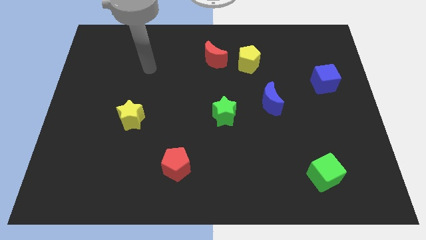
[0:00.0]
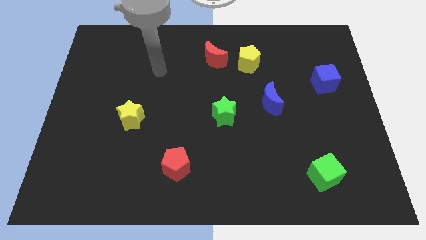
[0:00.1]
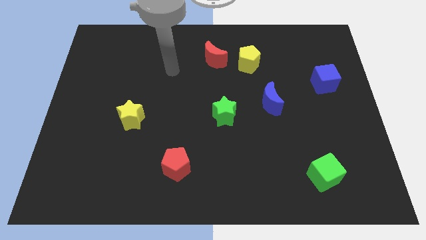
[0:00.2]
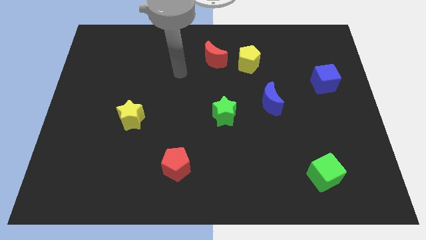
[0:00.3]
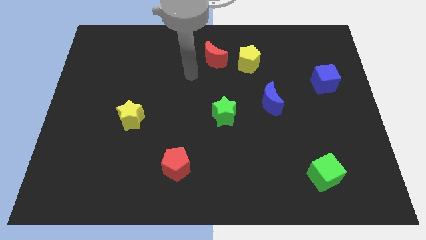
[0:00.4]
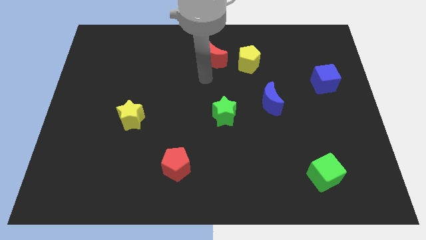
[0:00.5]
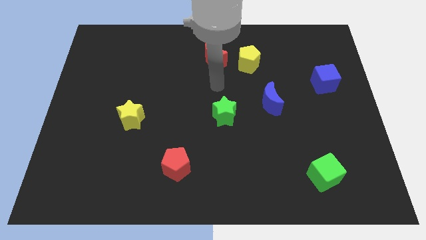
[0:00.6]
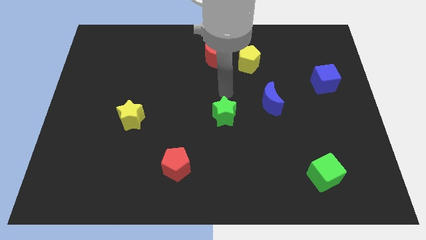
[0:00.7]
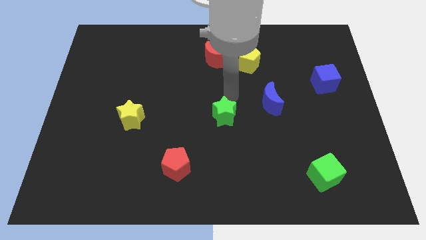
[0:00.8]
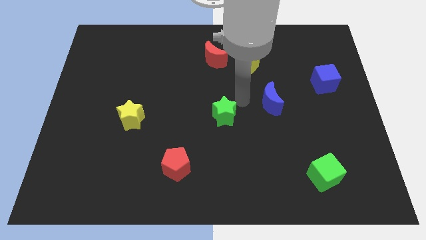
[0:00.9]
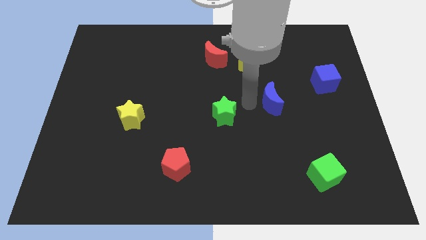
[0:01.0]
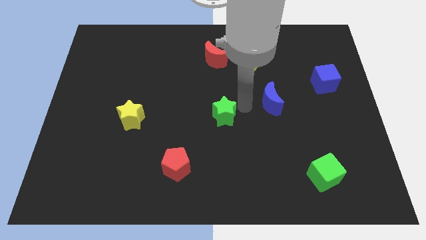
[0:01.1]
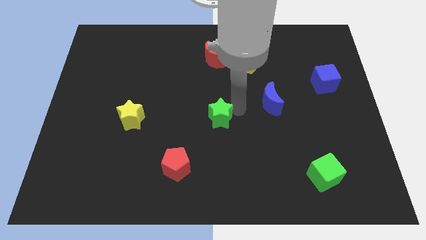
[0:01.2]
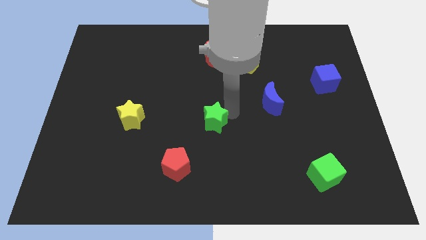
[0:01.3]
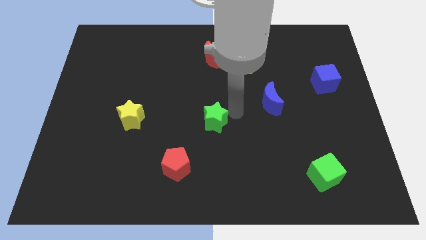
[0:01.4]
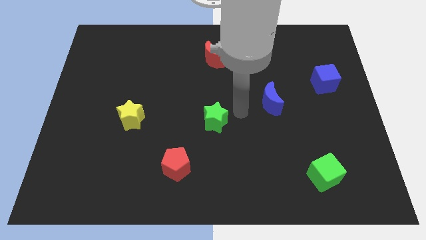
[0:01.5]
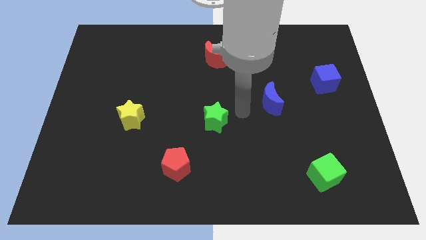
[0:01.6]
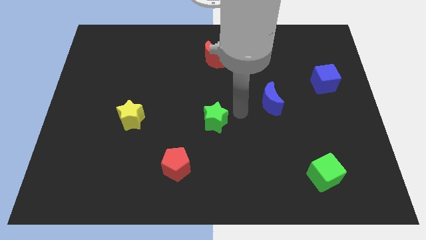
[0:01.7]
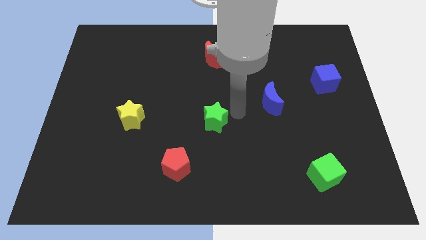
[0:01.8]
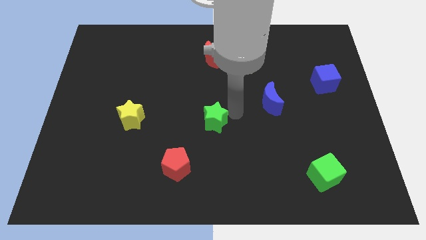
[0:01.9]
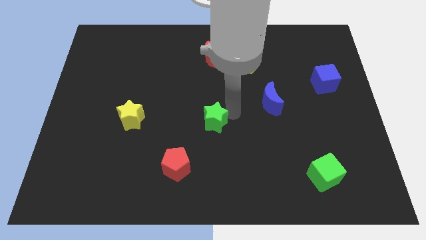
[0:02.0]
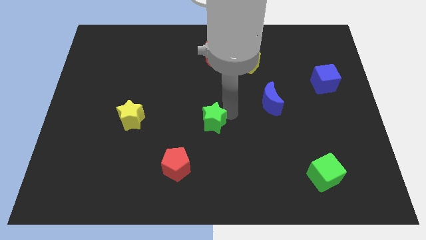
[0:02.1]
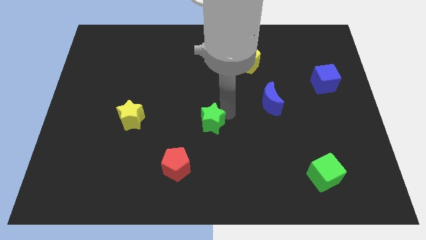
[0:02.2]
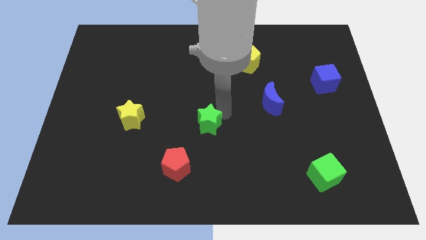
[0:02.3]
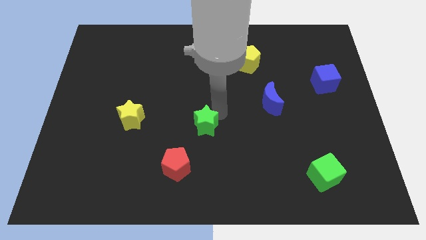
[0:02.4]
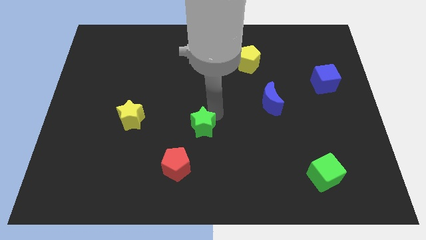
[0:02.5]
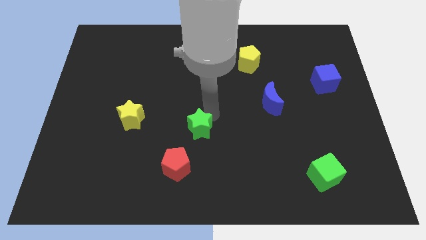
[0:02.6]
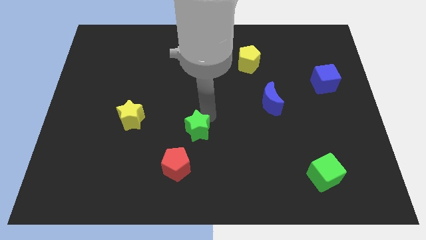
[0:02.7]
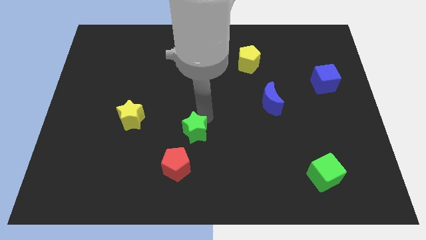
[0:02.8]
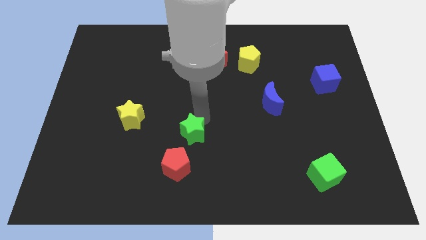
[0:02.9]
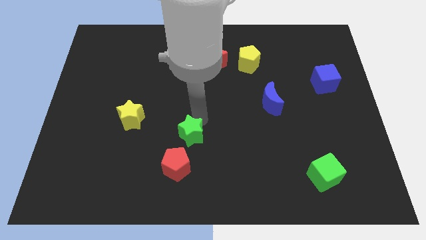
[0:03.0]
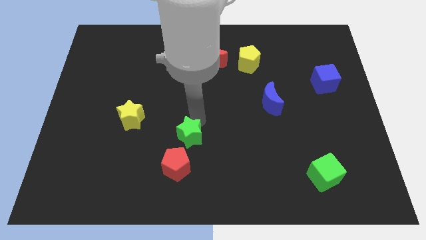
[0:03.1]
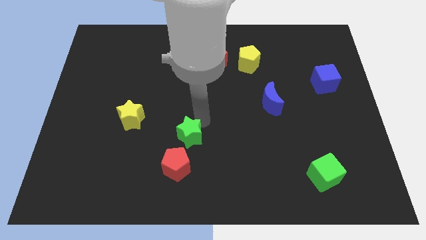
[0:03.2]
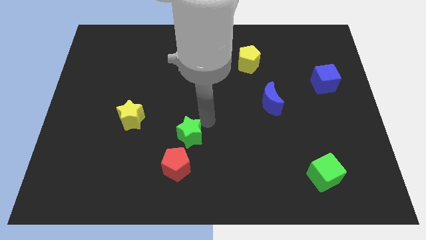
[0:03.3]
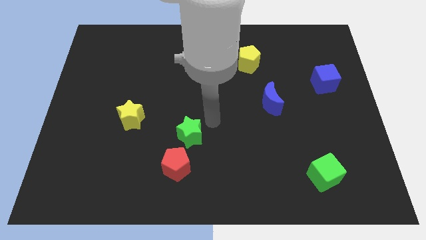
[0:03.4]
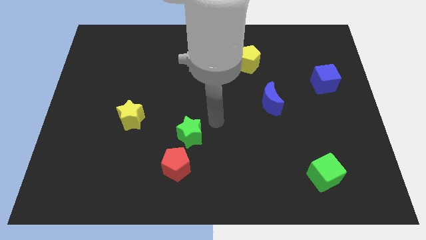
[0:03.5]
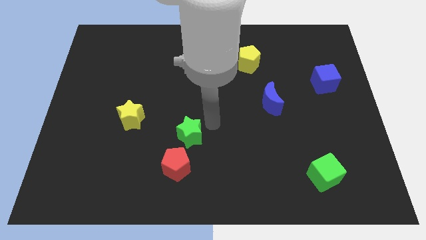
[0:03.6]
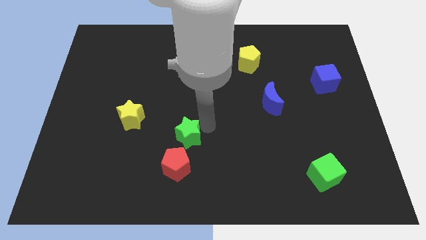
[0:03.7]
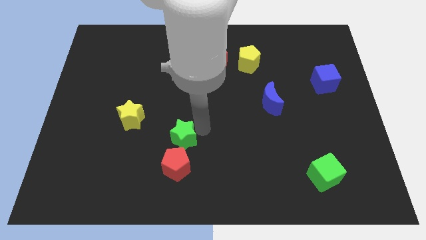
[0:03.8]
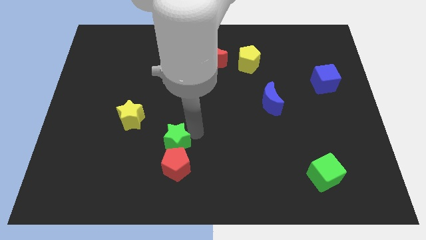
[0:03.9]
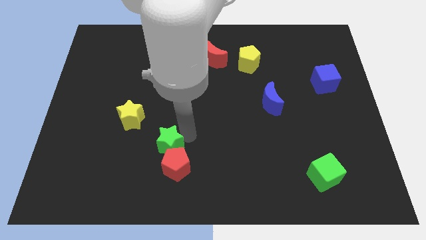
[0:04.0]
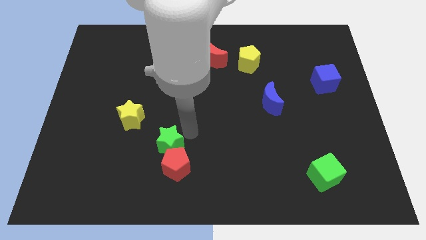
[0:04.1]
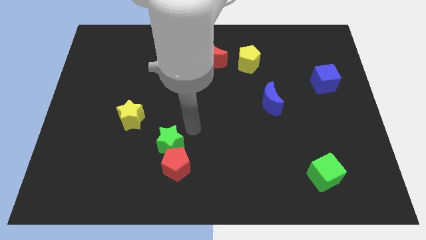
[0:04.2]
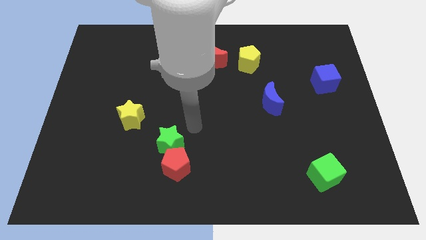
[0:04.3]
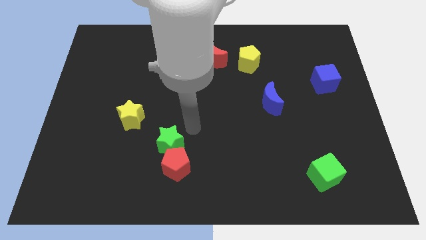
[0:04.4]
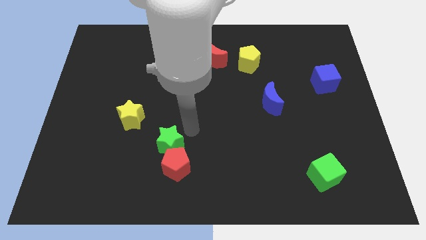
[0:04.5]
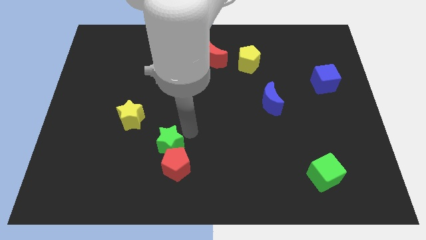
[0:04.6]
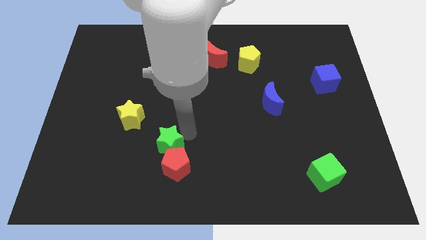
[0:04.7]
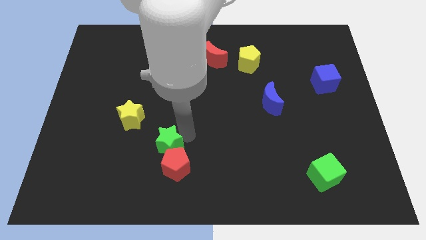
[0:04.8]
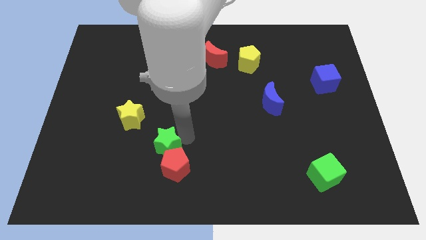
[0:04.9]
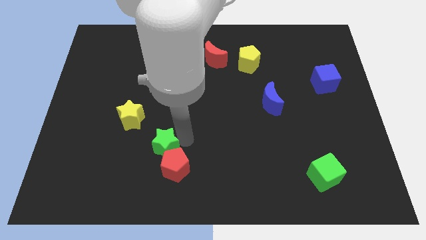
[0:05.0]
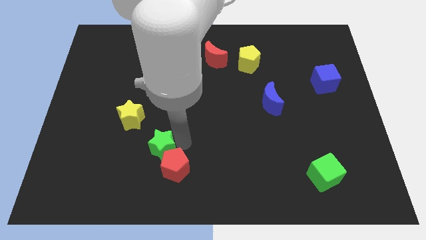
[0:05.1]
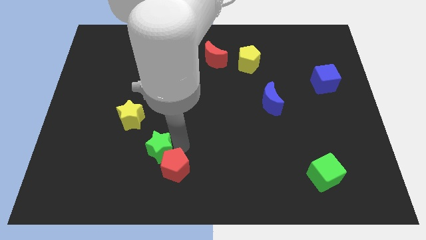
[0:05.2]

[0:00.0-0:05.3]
push the green star to the left side of the red pentagon

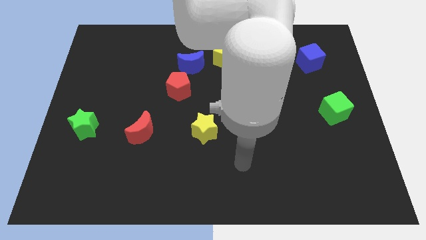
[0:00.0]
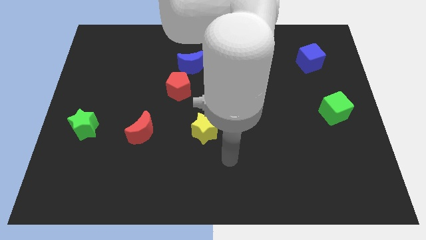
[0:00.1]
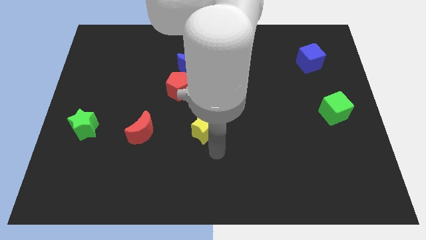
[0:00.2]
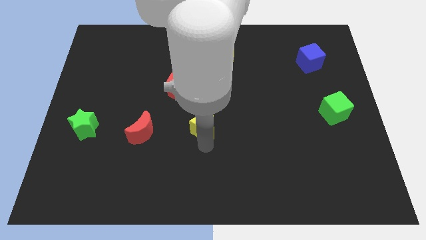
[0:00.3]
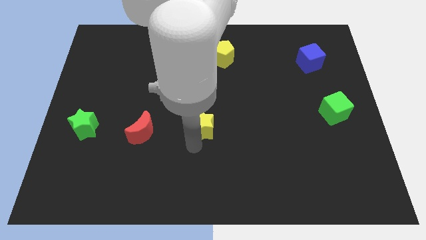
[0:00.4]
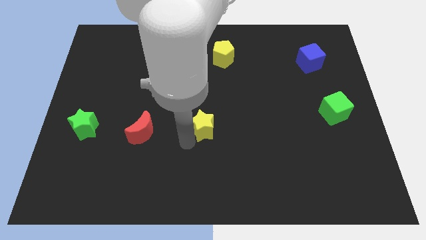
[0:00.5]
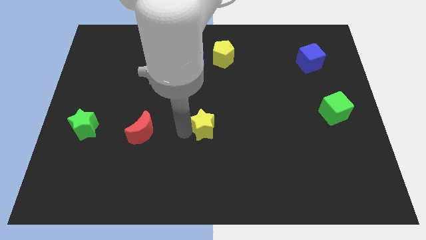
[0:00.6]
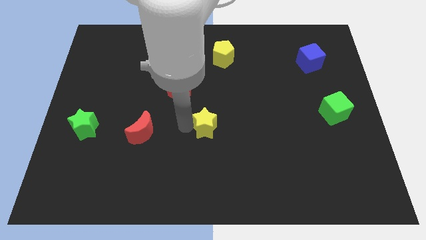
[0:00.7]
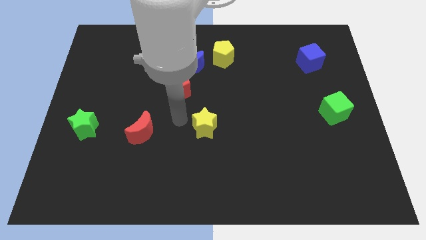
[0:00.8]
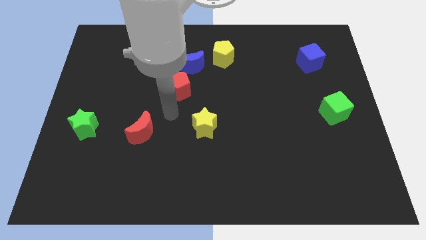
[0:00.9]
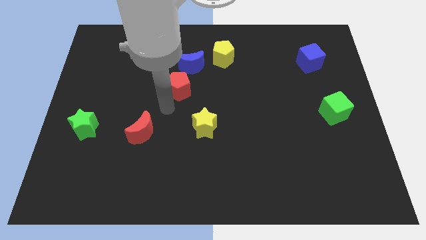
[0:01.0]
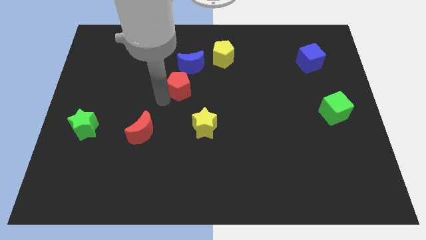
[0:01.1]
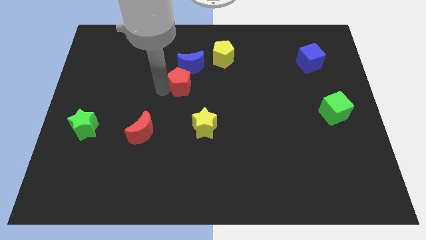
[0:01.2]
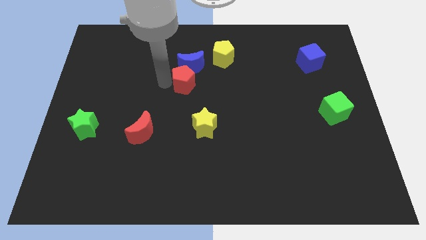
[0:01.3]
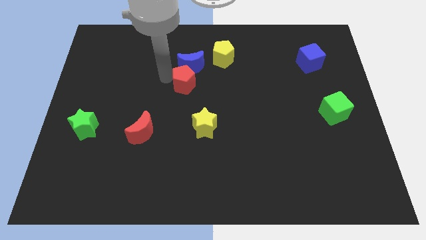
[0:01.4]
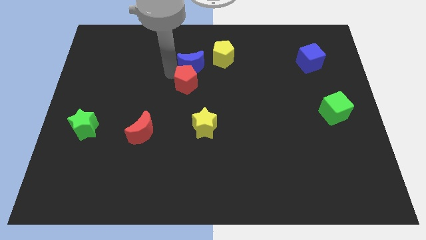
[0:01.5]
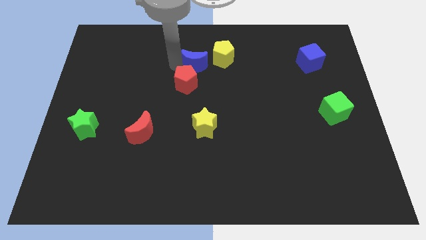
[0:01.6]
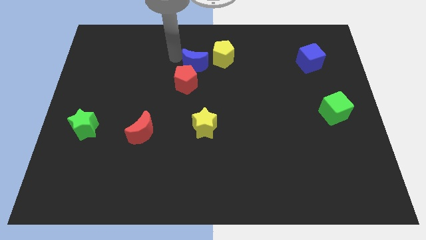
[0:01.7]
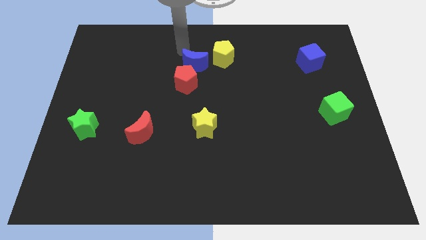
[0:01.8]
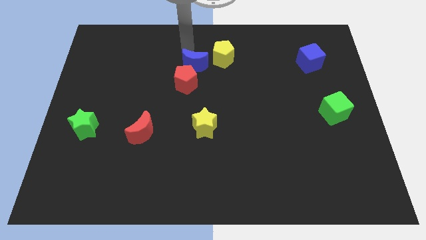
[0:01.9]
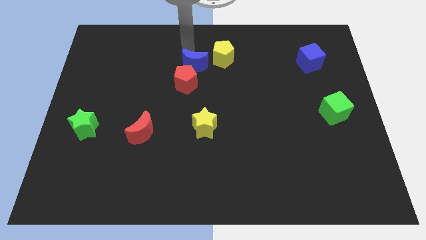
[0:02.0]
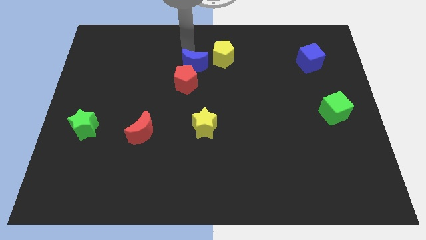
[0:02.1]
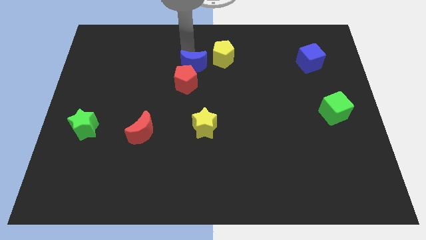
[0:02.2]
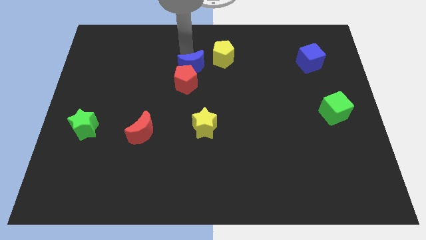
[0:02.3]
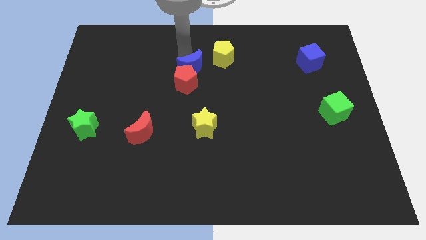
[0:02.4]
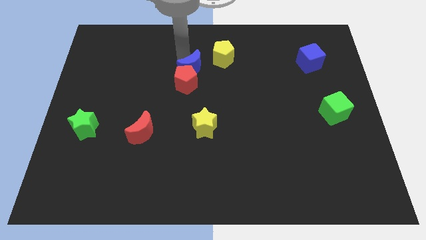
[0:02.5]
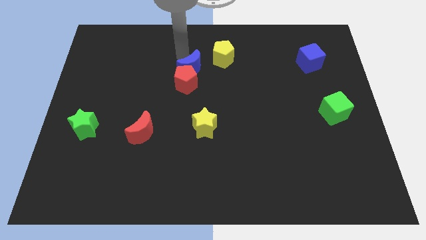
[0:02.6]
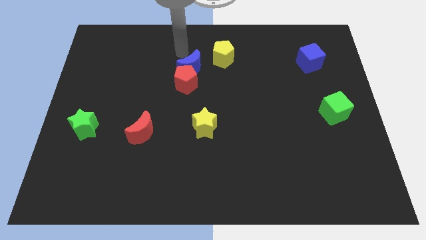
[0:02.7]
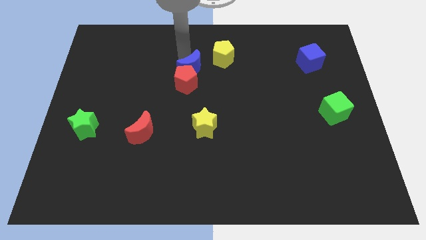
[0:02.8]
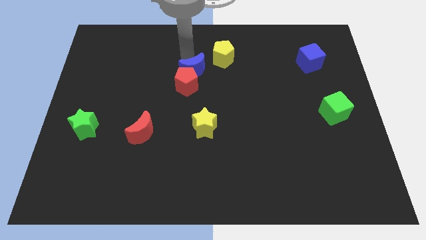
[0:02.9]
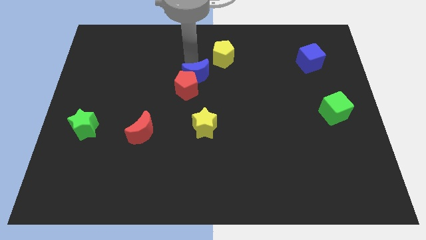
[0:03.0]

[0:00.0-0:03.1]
slide the blue moon to the top side of the yellow star
